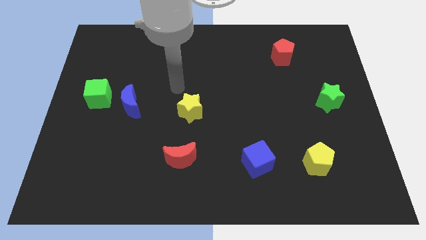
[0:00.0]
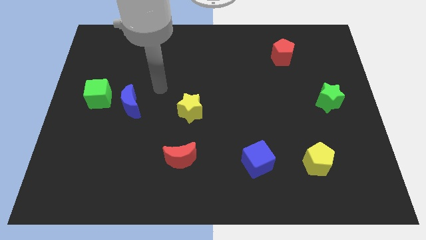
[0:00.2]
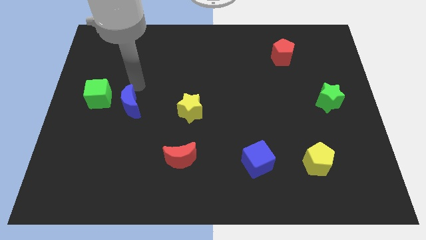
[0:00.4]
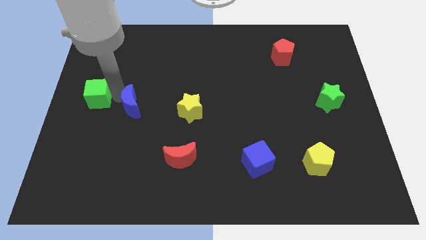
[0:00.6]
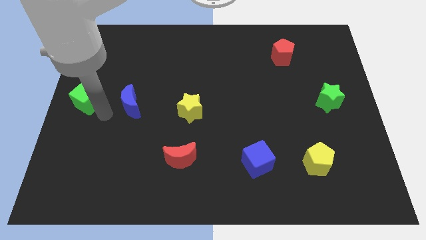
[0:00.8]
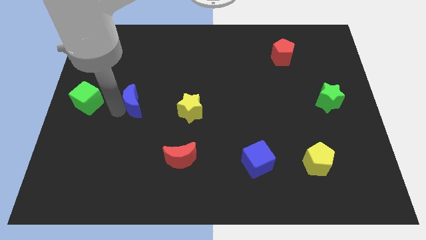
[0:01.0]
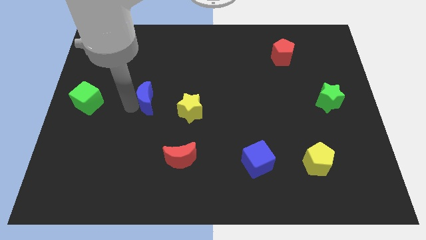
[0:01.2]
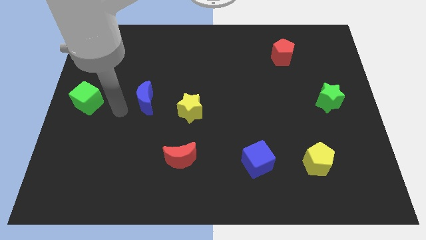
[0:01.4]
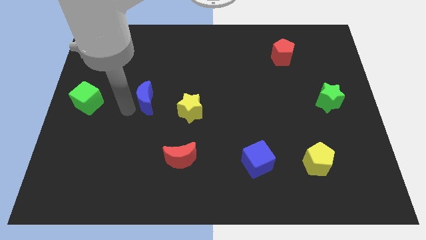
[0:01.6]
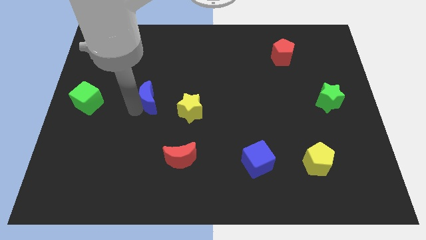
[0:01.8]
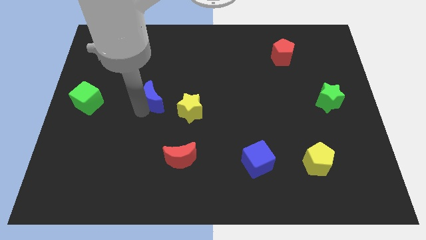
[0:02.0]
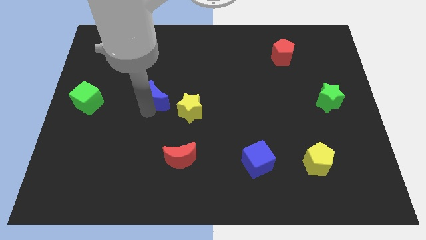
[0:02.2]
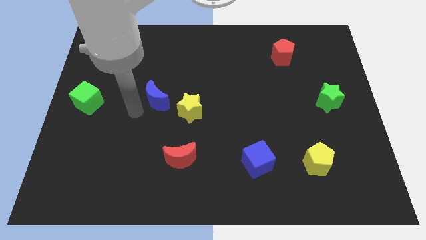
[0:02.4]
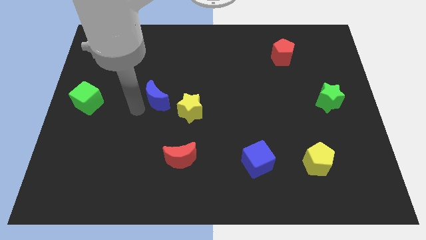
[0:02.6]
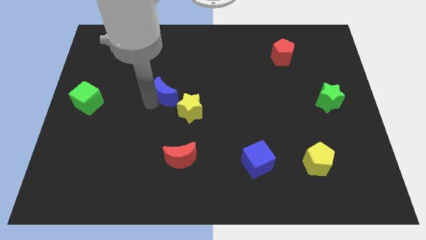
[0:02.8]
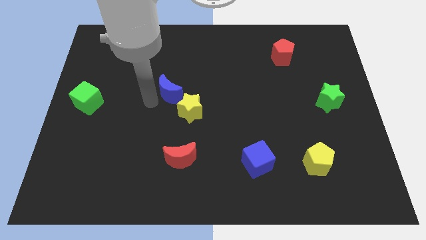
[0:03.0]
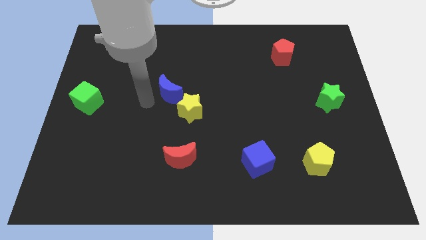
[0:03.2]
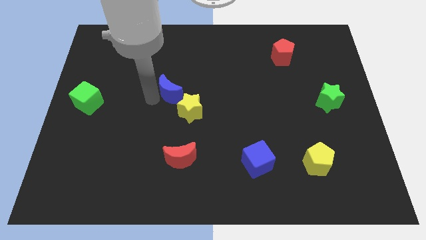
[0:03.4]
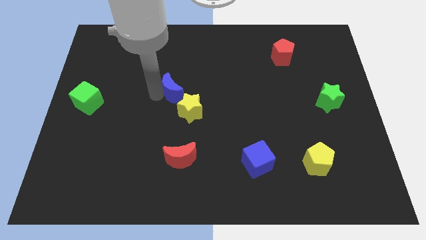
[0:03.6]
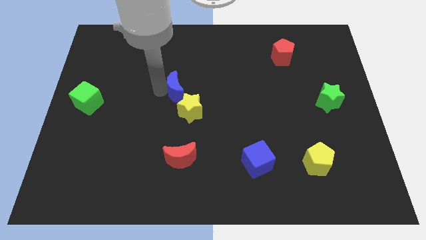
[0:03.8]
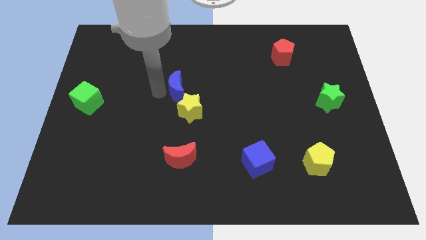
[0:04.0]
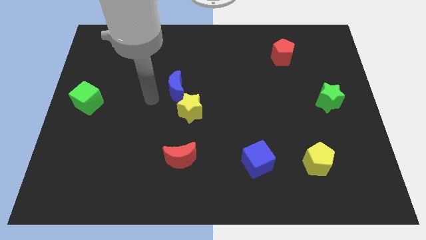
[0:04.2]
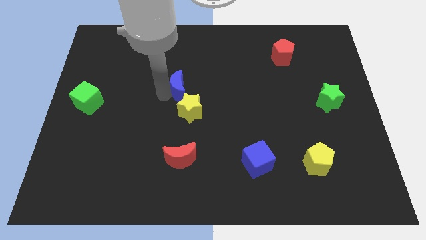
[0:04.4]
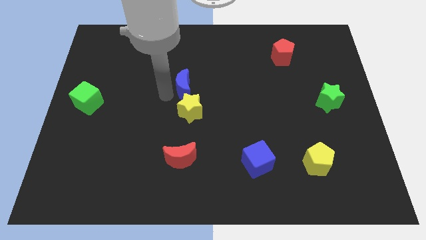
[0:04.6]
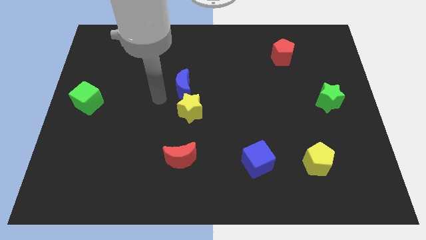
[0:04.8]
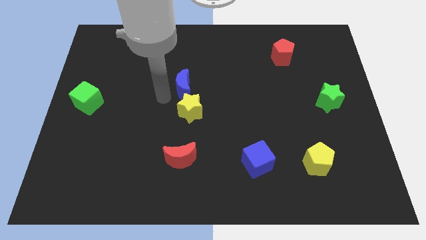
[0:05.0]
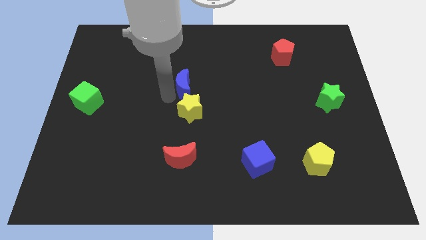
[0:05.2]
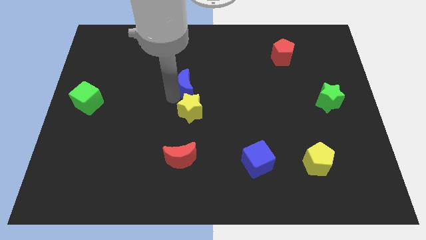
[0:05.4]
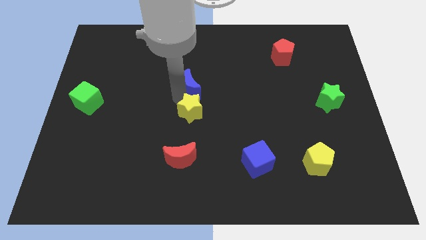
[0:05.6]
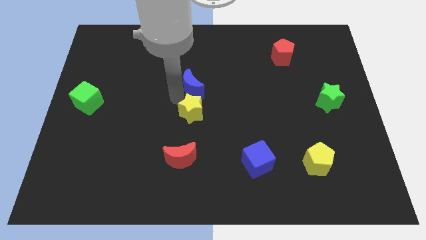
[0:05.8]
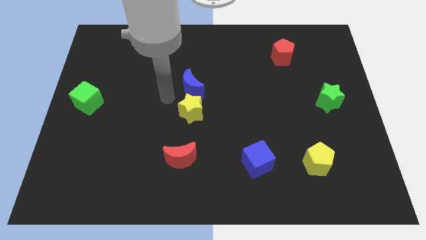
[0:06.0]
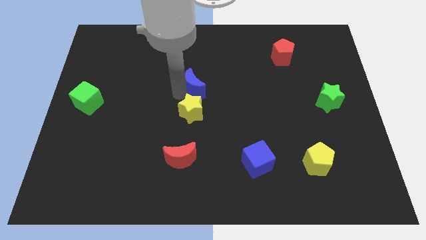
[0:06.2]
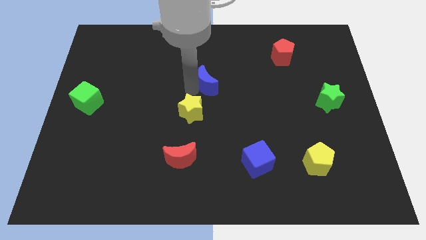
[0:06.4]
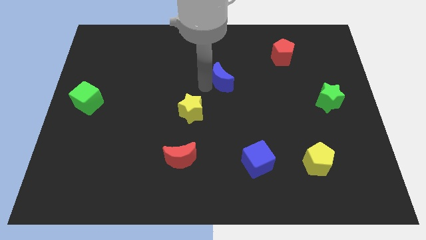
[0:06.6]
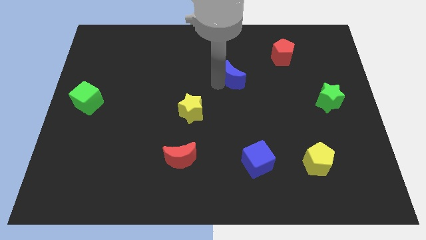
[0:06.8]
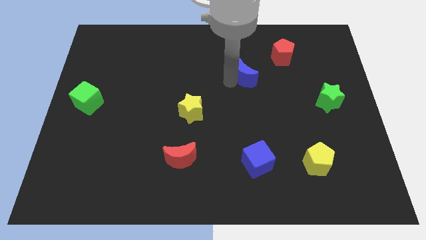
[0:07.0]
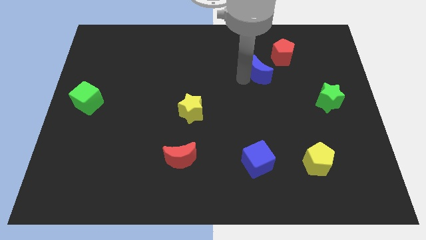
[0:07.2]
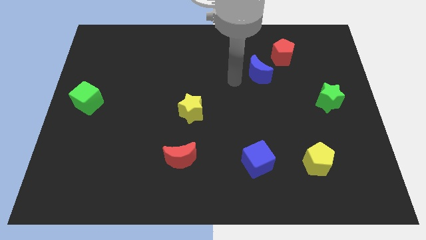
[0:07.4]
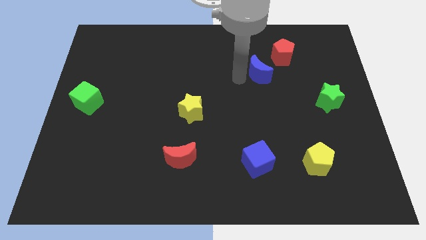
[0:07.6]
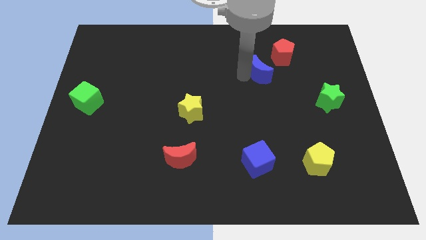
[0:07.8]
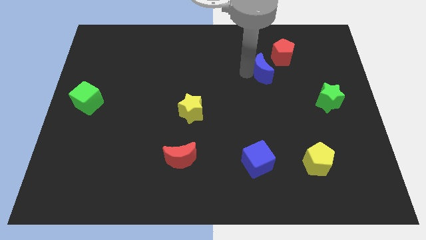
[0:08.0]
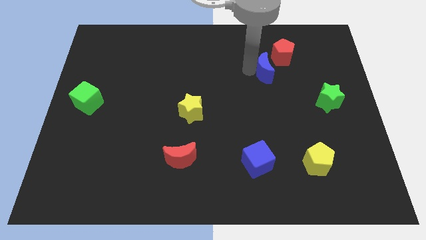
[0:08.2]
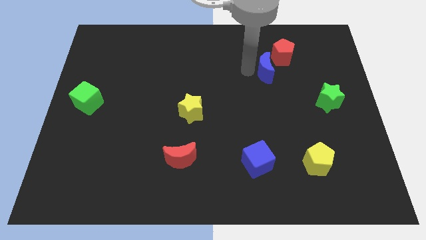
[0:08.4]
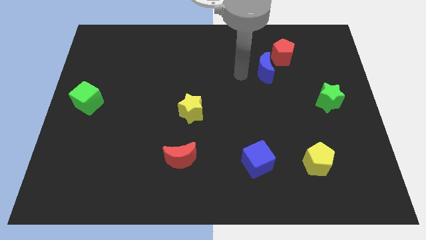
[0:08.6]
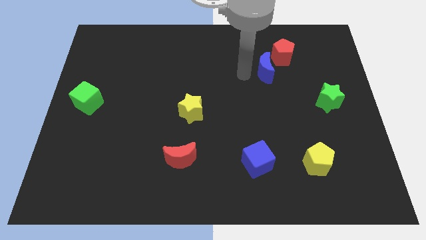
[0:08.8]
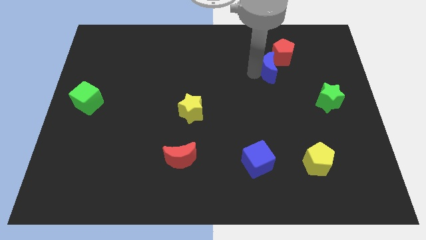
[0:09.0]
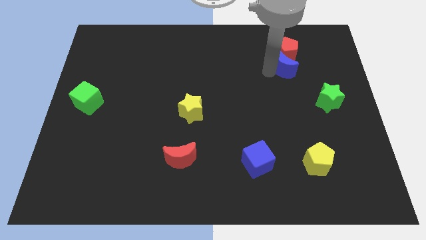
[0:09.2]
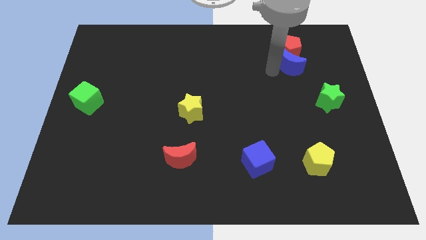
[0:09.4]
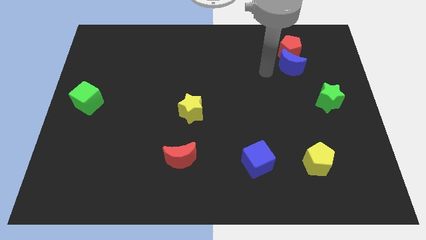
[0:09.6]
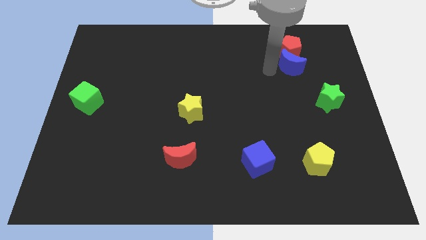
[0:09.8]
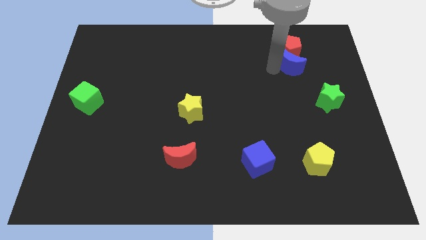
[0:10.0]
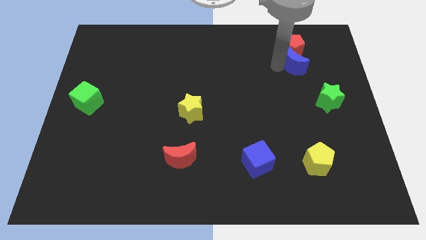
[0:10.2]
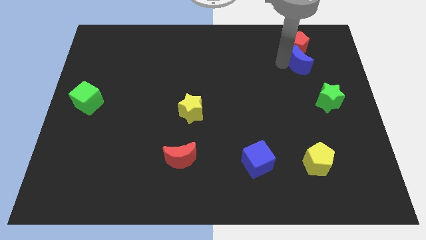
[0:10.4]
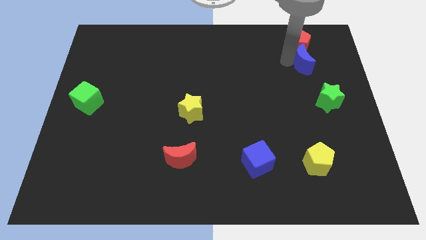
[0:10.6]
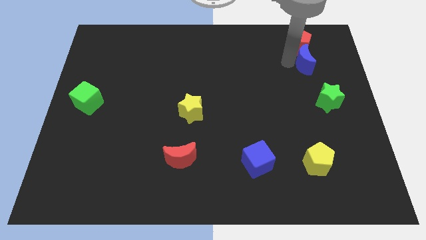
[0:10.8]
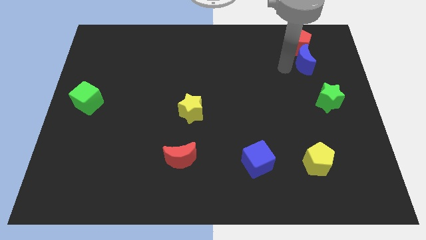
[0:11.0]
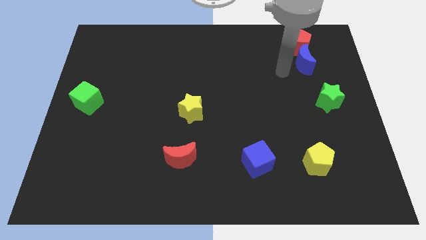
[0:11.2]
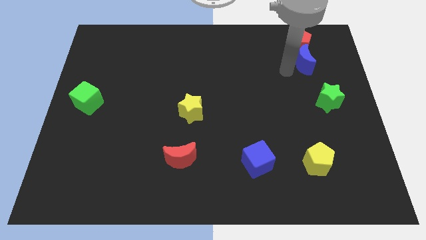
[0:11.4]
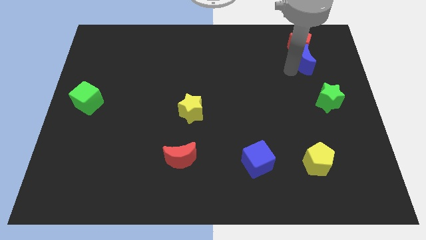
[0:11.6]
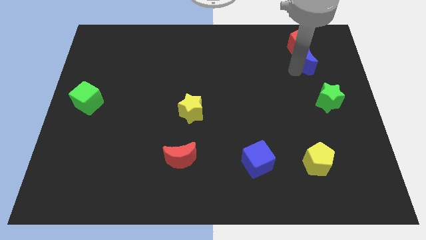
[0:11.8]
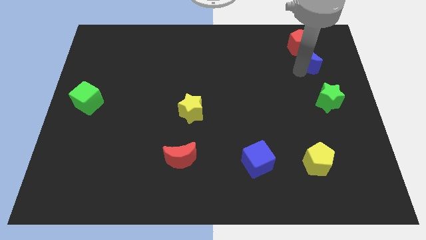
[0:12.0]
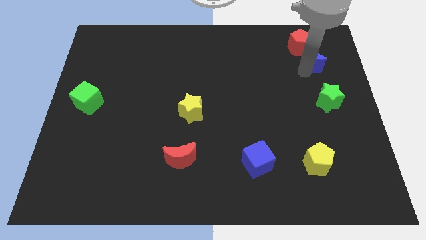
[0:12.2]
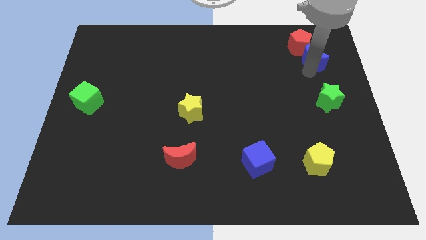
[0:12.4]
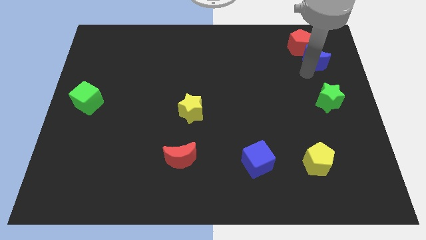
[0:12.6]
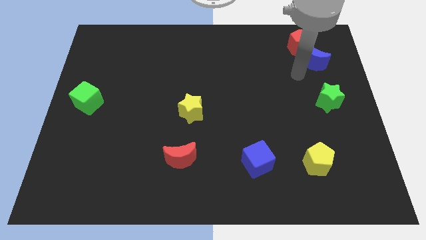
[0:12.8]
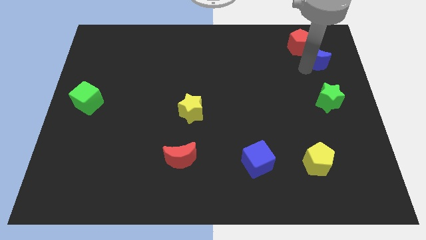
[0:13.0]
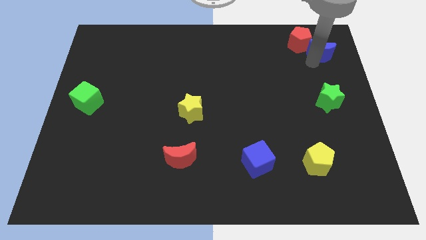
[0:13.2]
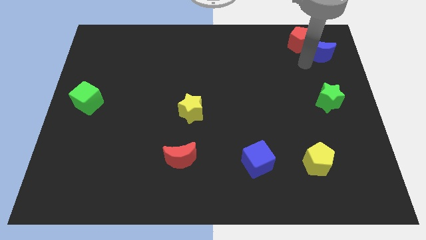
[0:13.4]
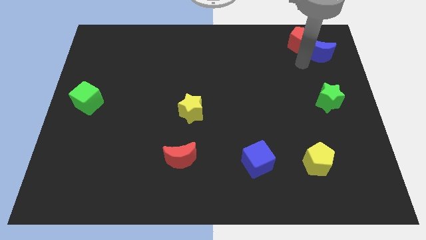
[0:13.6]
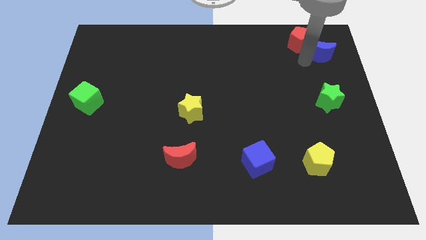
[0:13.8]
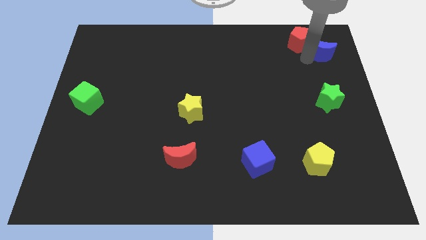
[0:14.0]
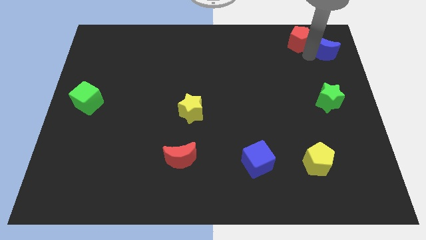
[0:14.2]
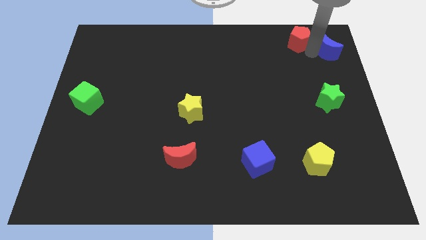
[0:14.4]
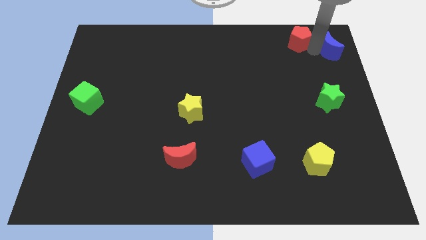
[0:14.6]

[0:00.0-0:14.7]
put the blue moon to the top right of the board
